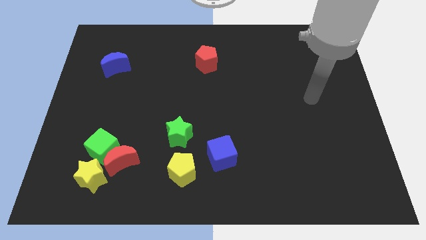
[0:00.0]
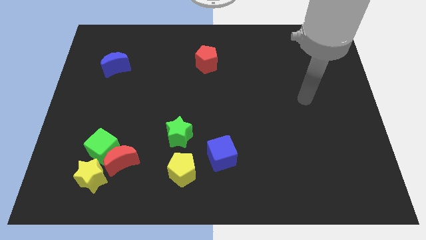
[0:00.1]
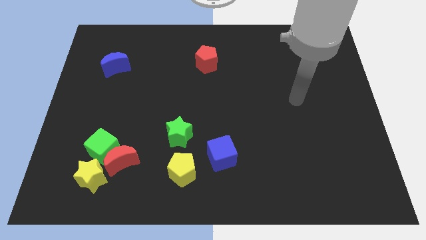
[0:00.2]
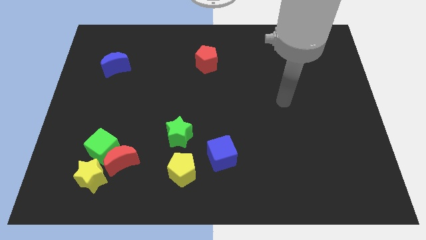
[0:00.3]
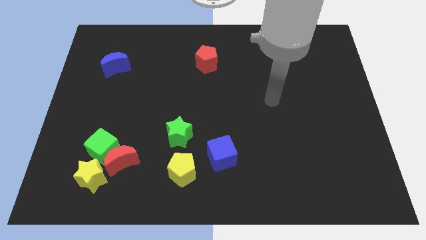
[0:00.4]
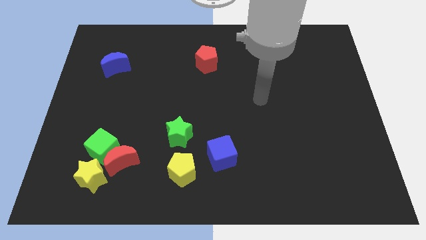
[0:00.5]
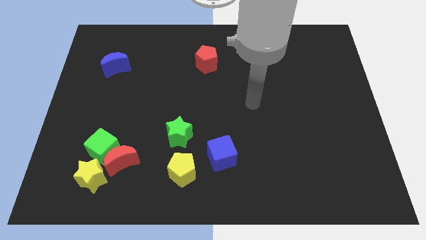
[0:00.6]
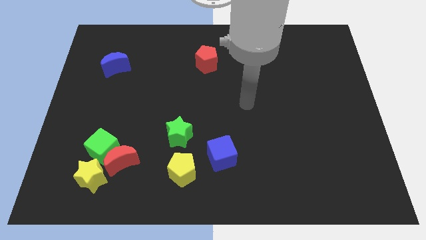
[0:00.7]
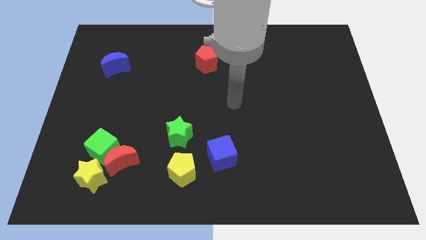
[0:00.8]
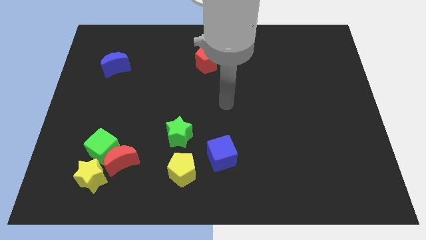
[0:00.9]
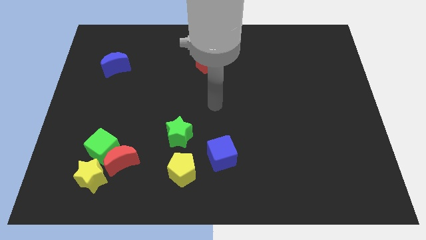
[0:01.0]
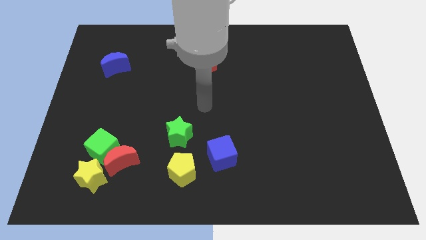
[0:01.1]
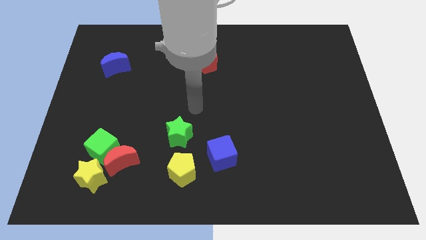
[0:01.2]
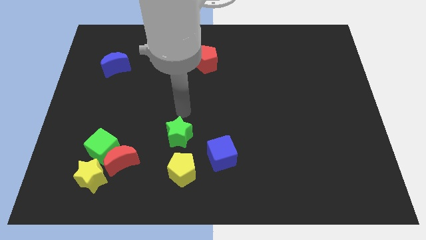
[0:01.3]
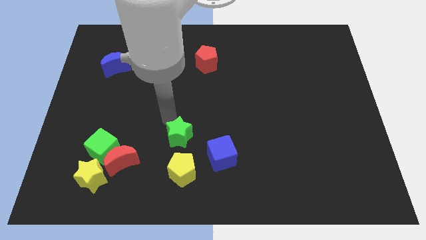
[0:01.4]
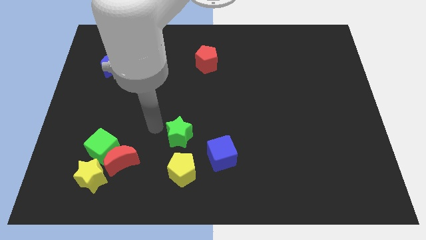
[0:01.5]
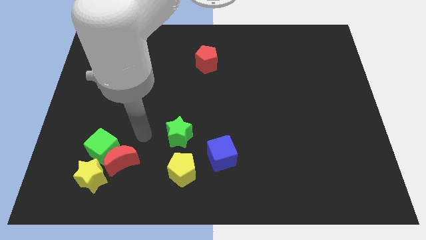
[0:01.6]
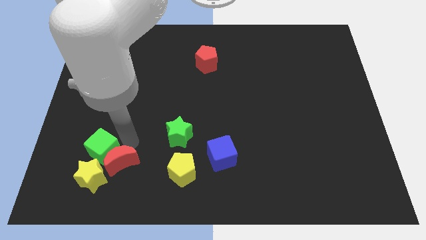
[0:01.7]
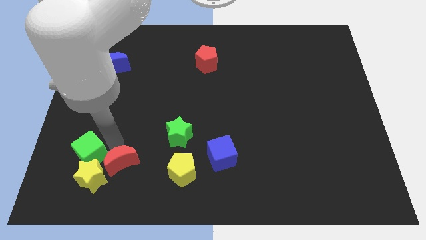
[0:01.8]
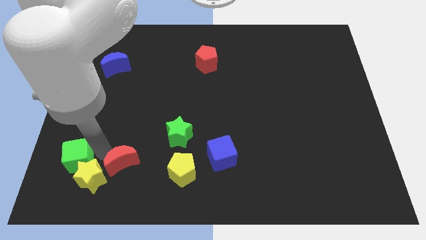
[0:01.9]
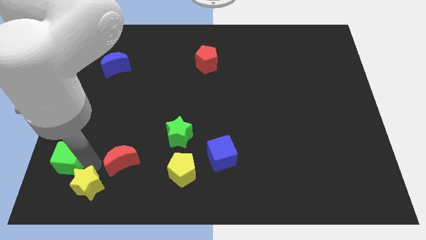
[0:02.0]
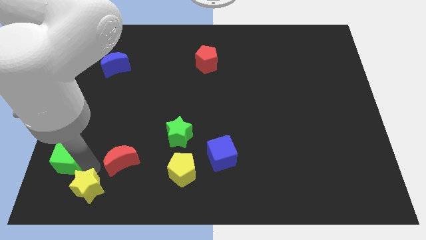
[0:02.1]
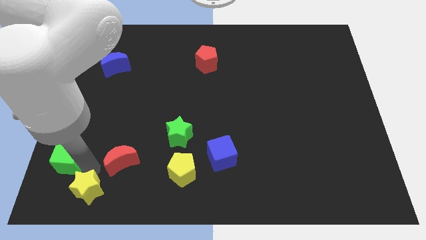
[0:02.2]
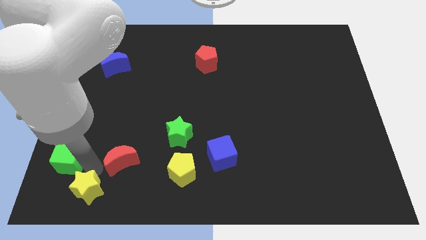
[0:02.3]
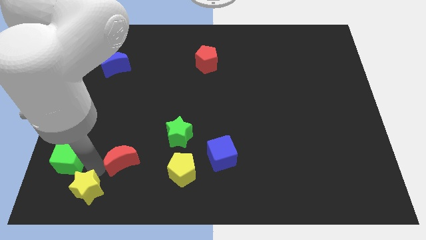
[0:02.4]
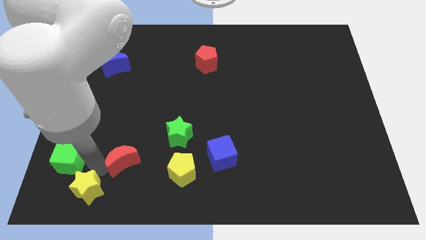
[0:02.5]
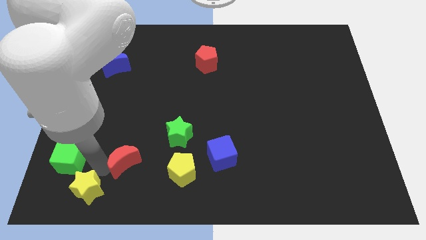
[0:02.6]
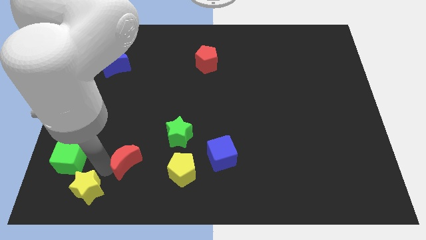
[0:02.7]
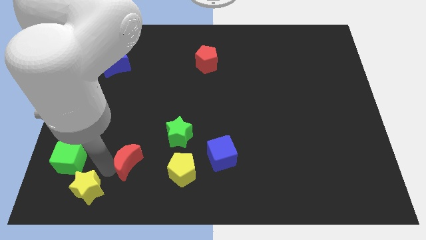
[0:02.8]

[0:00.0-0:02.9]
separate the red moon from the green cube and yellow star

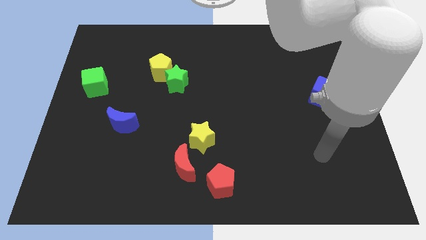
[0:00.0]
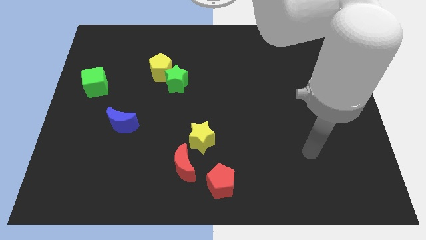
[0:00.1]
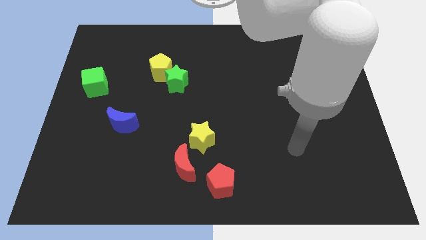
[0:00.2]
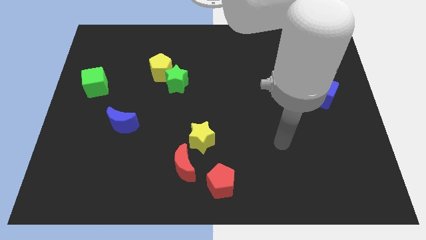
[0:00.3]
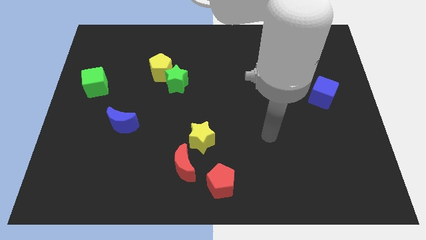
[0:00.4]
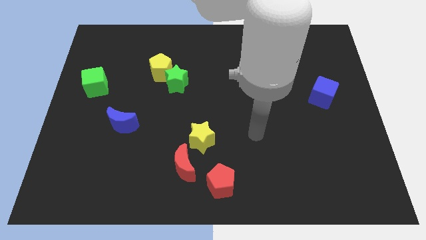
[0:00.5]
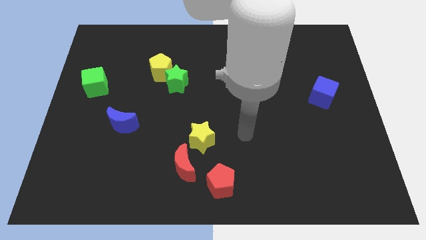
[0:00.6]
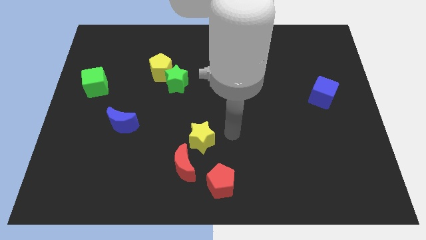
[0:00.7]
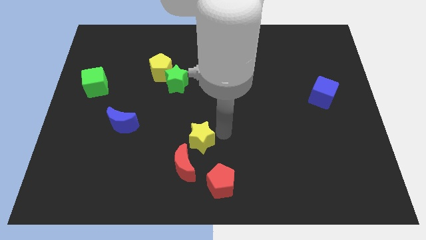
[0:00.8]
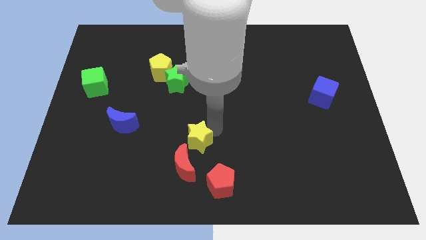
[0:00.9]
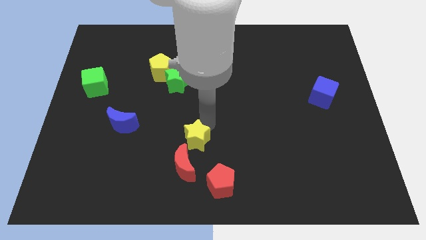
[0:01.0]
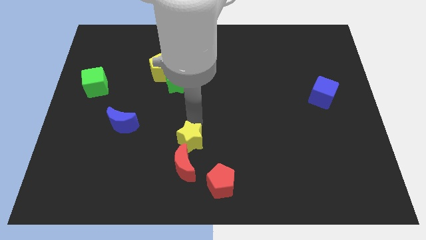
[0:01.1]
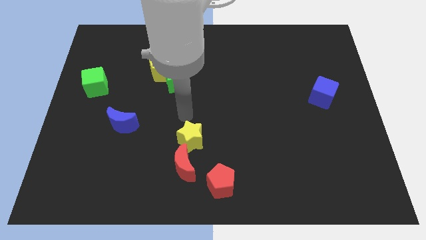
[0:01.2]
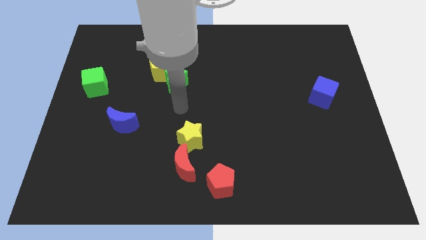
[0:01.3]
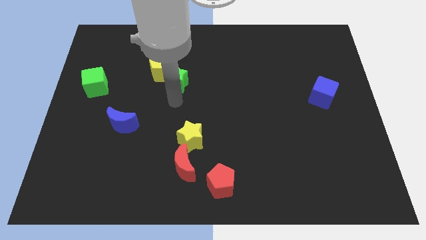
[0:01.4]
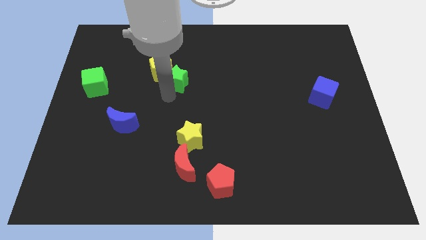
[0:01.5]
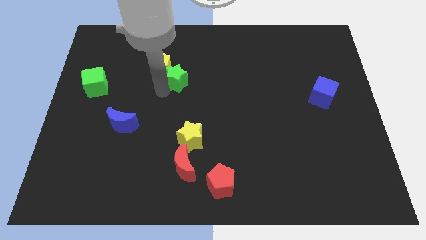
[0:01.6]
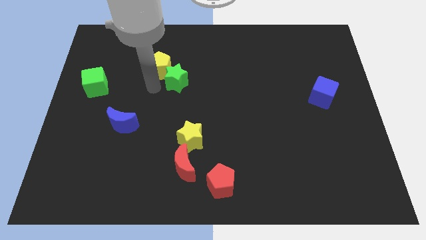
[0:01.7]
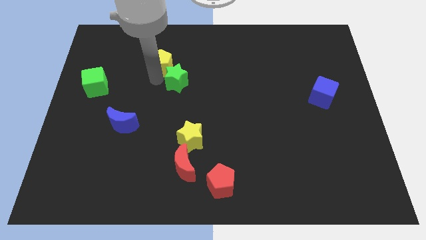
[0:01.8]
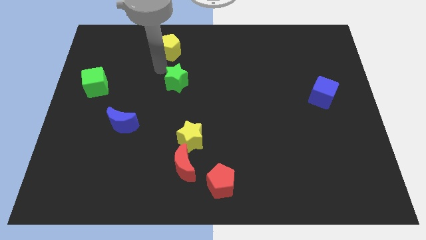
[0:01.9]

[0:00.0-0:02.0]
separate the green star from the yellow pentagon

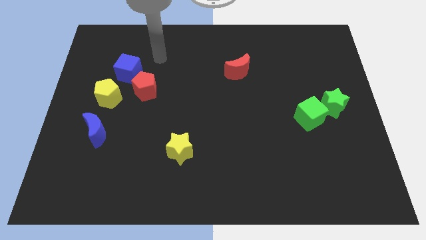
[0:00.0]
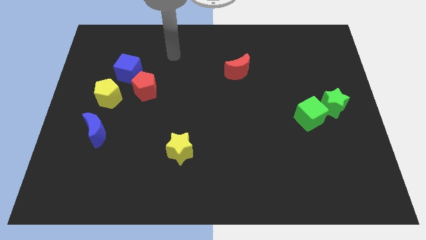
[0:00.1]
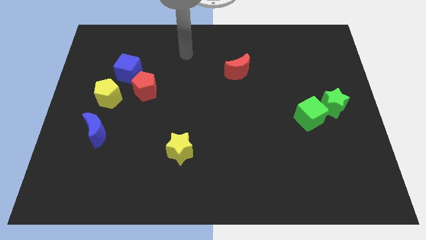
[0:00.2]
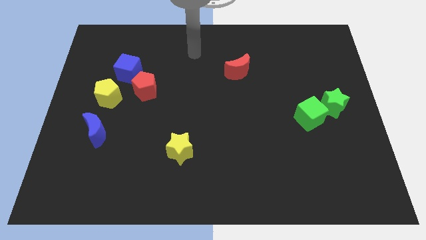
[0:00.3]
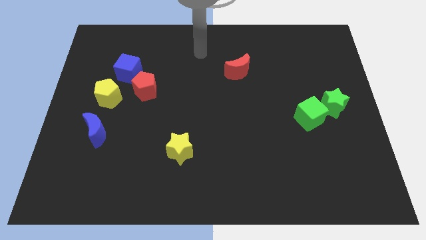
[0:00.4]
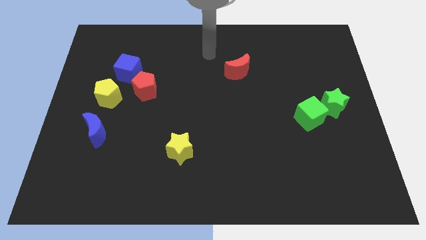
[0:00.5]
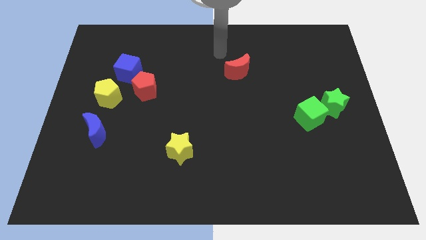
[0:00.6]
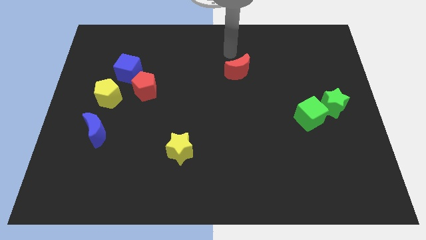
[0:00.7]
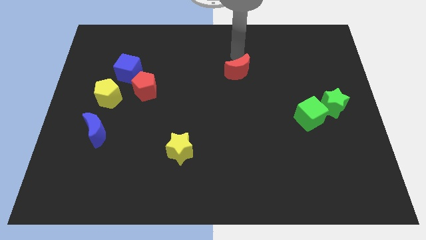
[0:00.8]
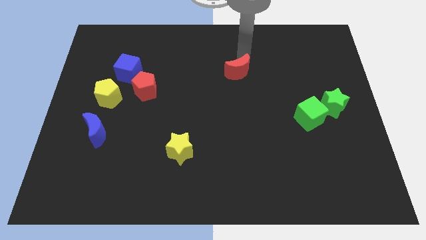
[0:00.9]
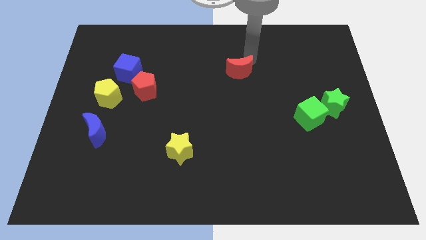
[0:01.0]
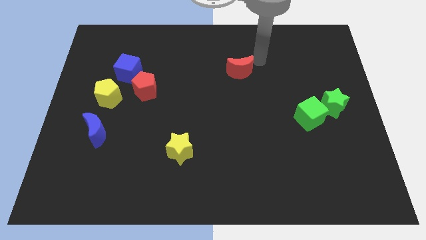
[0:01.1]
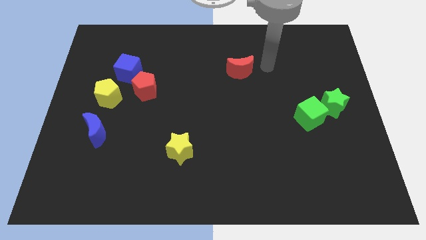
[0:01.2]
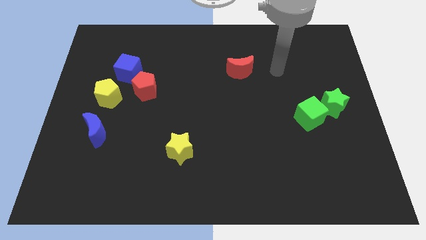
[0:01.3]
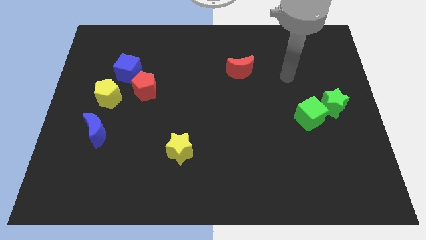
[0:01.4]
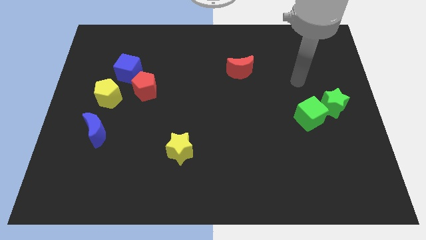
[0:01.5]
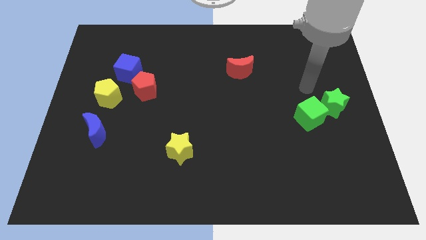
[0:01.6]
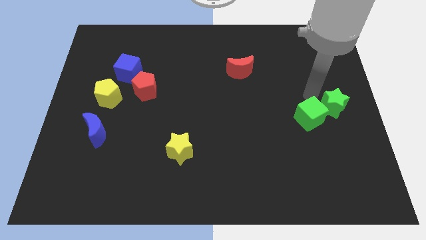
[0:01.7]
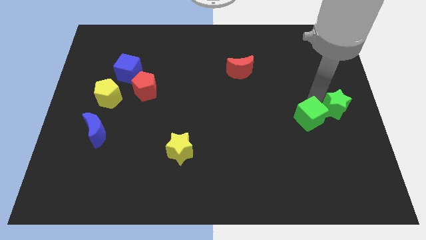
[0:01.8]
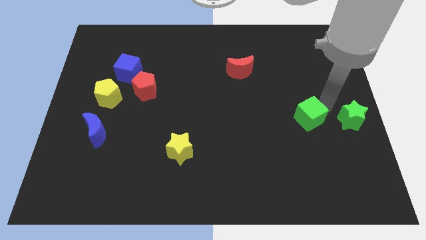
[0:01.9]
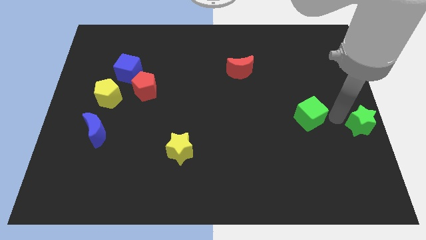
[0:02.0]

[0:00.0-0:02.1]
pull the green cube apart from the green star

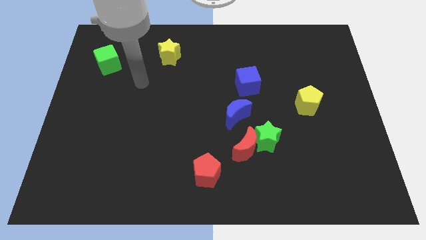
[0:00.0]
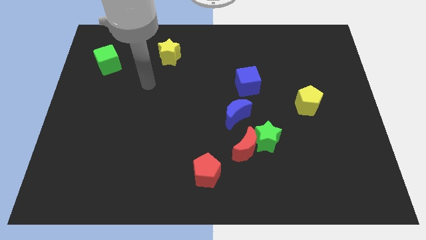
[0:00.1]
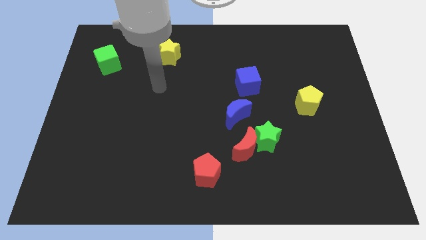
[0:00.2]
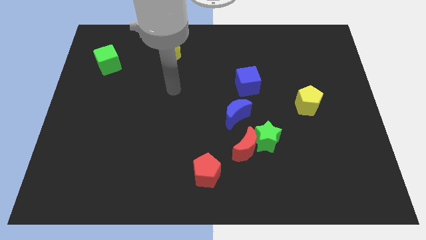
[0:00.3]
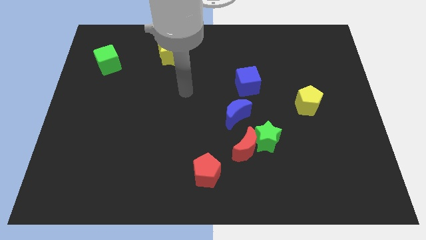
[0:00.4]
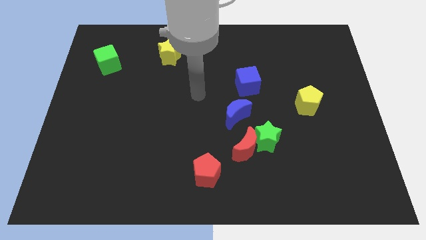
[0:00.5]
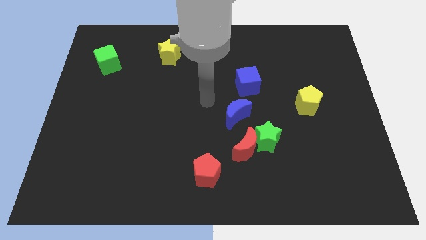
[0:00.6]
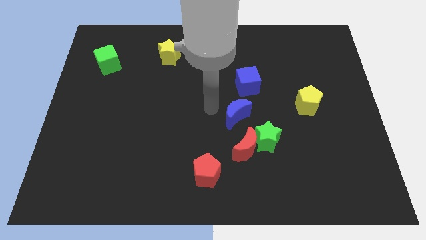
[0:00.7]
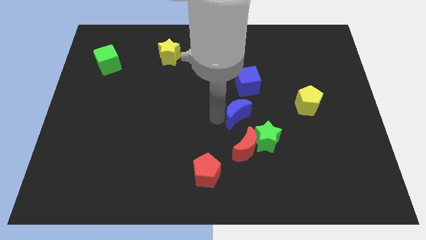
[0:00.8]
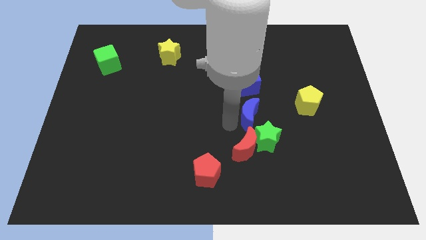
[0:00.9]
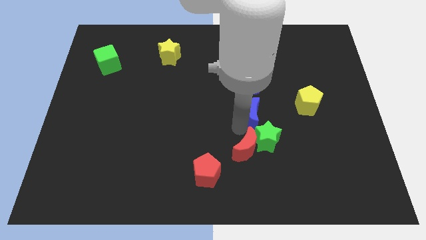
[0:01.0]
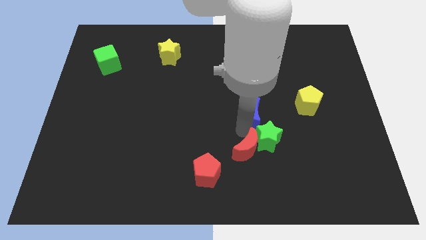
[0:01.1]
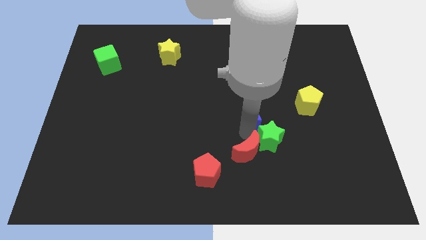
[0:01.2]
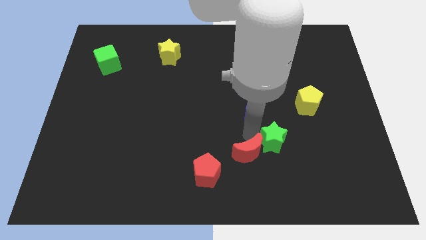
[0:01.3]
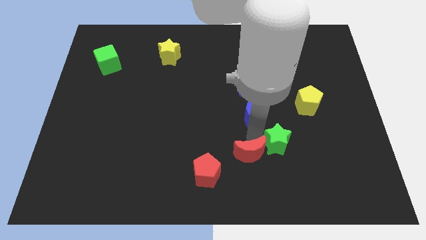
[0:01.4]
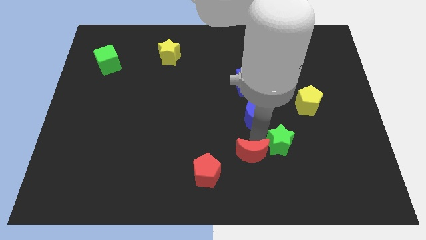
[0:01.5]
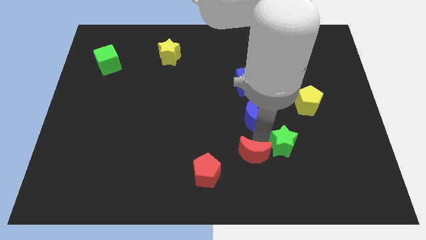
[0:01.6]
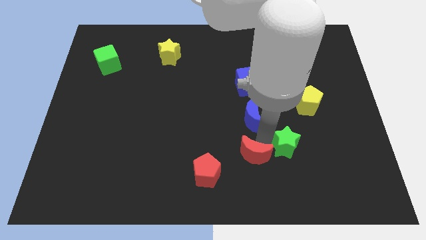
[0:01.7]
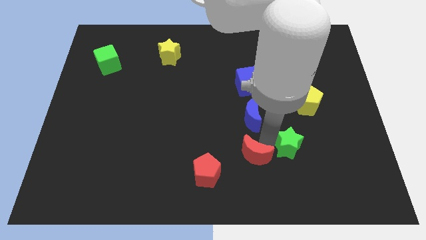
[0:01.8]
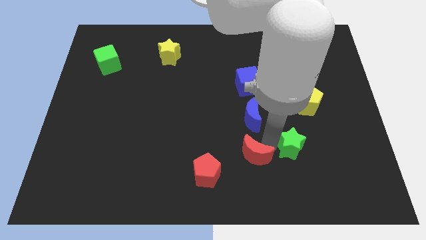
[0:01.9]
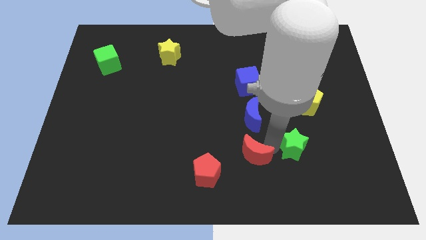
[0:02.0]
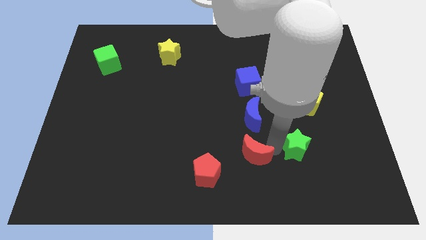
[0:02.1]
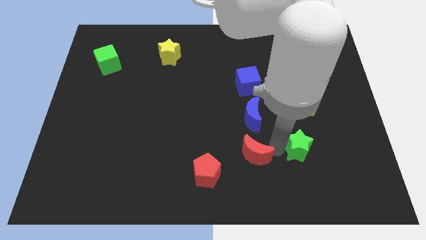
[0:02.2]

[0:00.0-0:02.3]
pull the green star apart from the red moon and blue moon

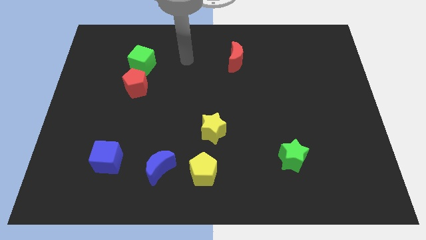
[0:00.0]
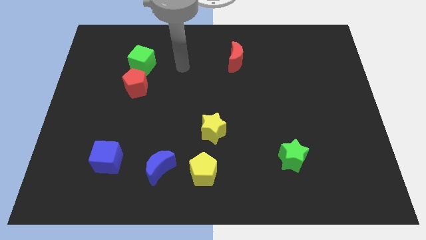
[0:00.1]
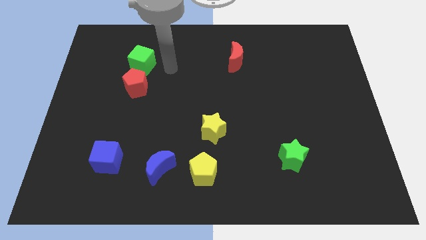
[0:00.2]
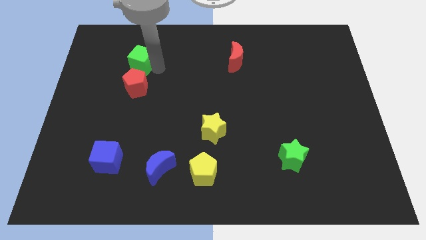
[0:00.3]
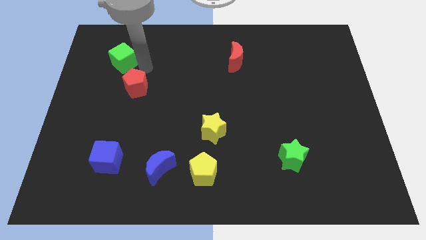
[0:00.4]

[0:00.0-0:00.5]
pull the red pentagon apart from the green cube
